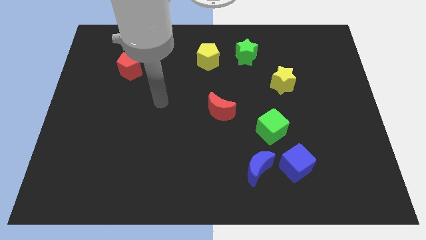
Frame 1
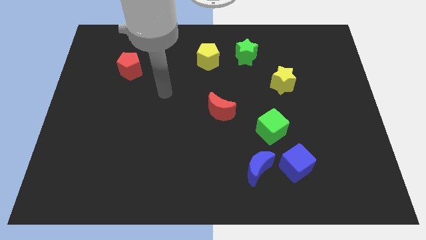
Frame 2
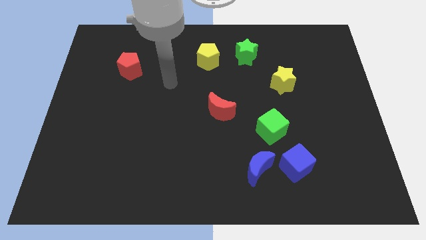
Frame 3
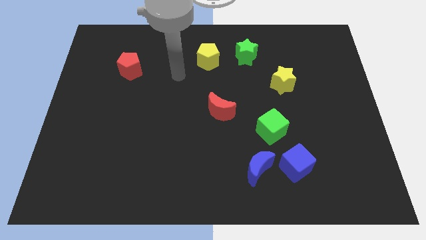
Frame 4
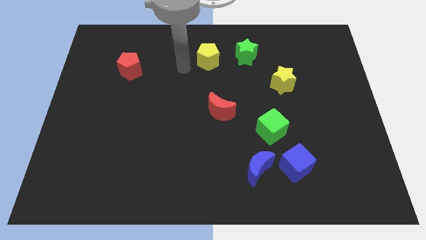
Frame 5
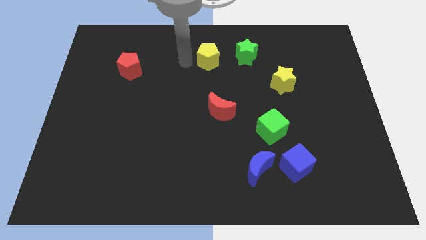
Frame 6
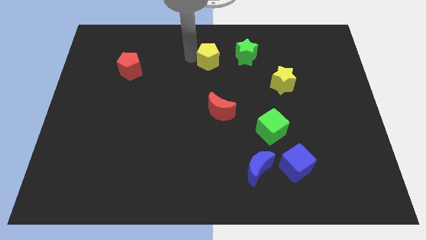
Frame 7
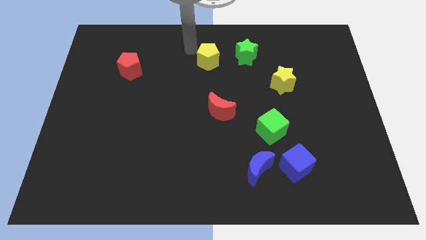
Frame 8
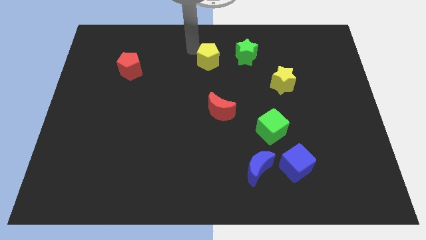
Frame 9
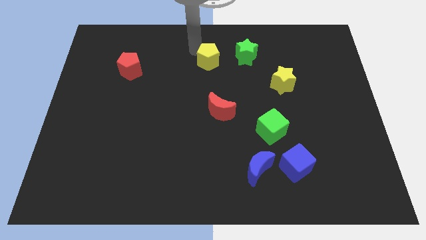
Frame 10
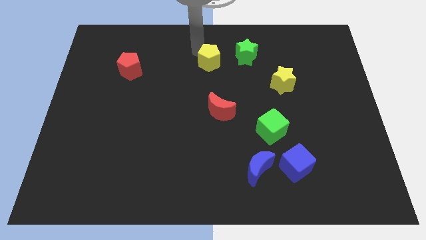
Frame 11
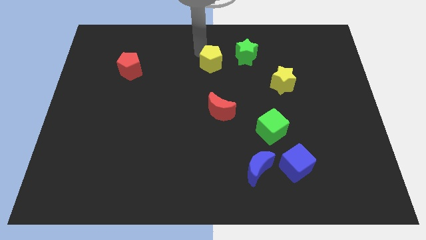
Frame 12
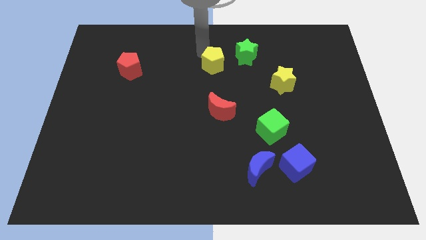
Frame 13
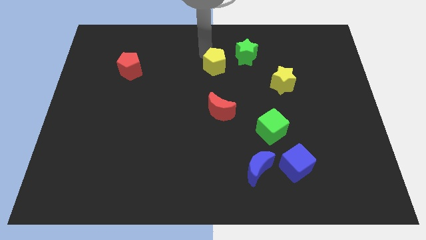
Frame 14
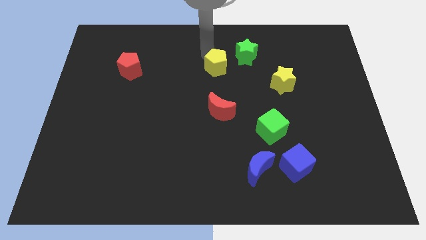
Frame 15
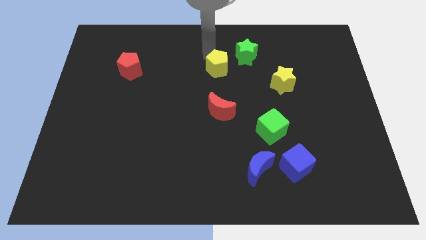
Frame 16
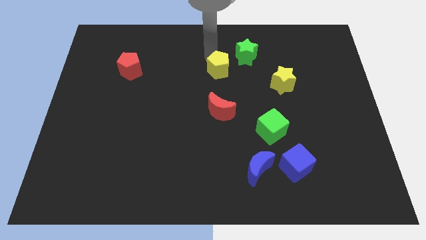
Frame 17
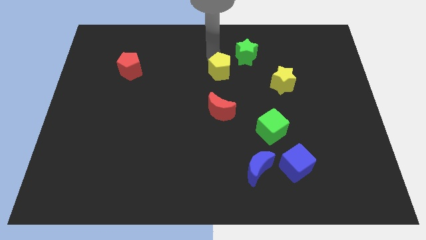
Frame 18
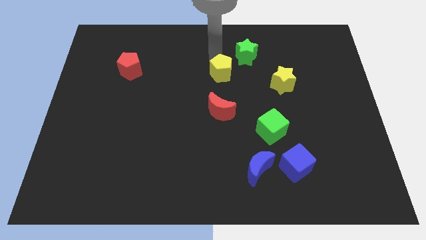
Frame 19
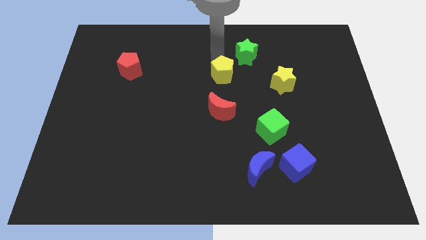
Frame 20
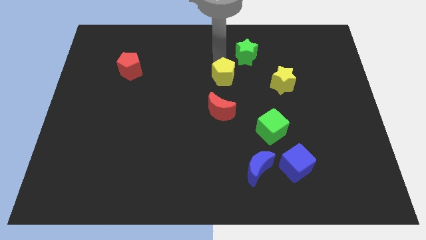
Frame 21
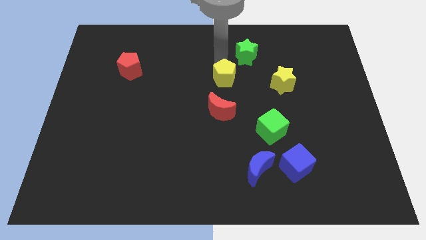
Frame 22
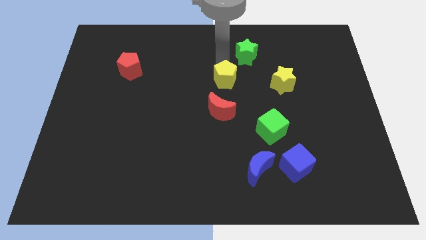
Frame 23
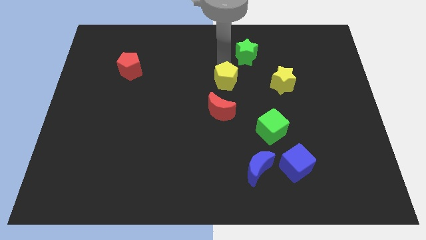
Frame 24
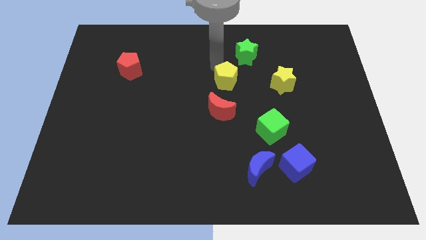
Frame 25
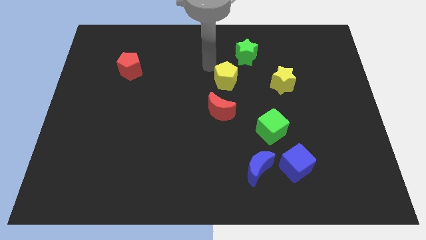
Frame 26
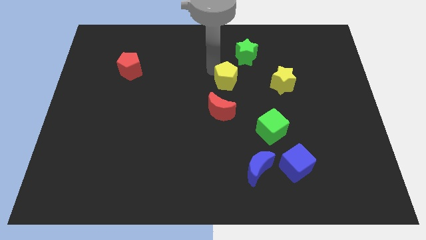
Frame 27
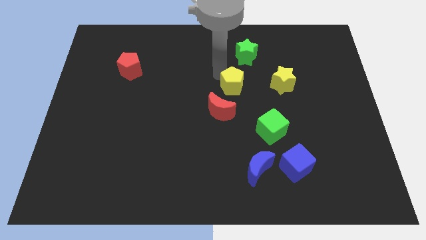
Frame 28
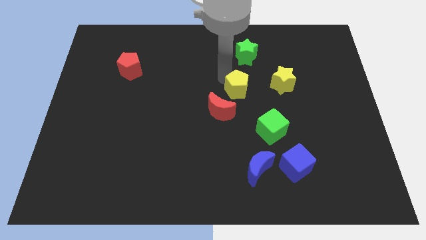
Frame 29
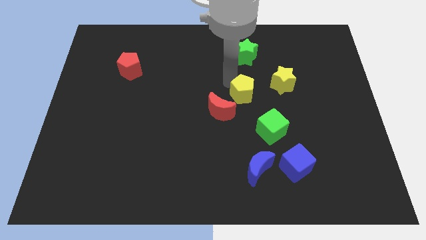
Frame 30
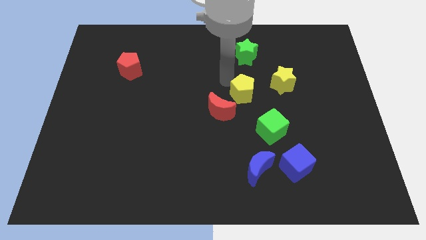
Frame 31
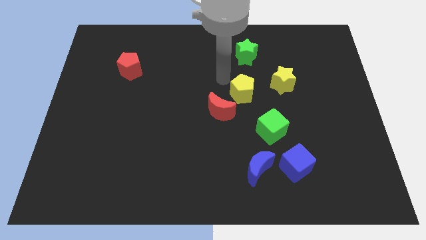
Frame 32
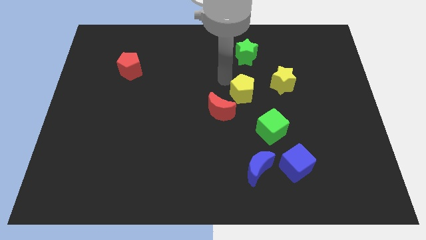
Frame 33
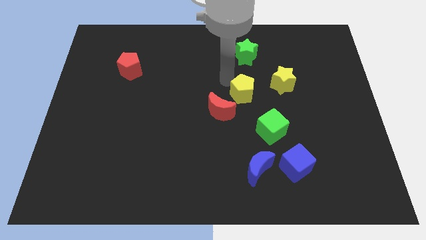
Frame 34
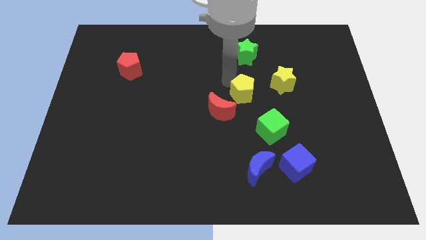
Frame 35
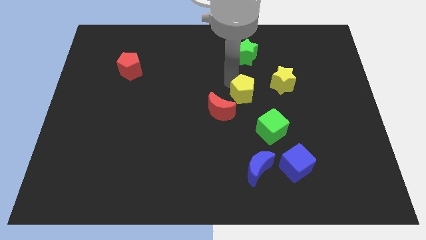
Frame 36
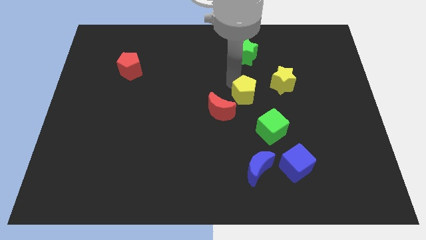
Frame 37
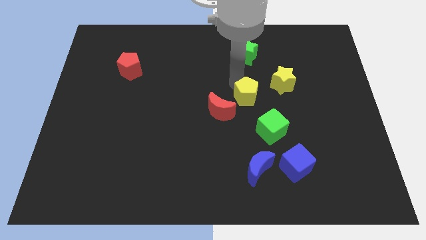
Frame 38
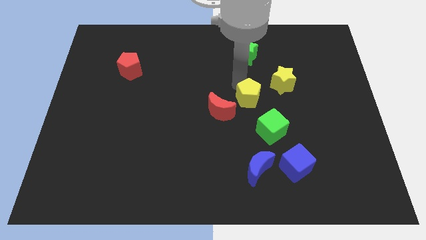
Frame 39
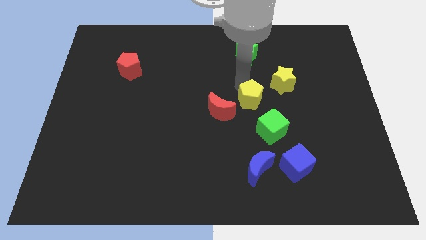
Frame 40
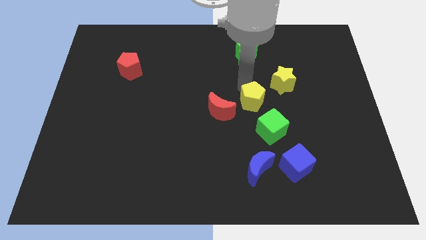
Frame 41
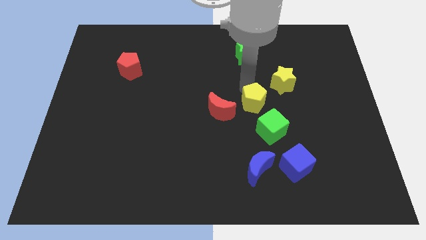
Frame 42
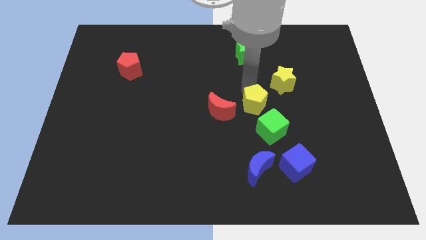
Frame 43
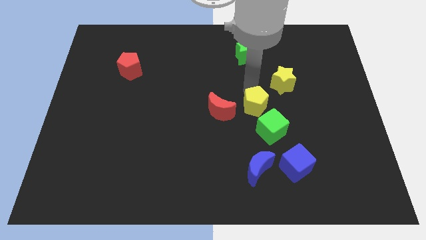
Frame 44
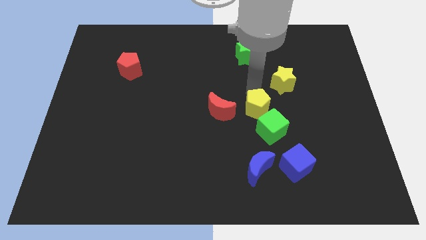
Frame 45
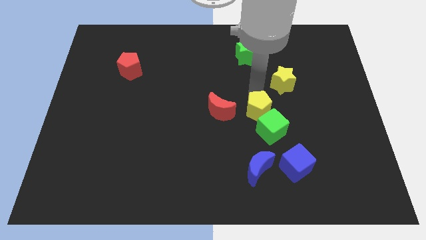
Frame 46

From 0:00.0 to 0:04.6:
put the yellow pentagon close to the green cube

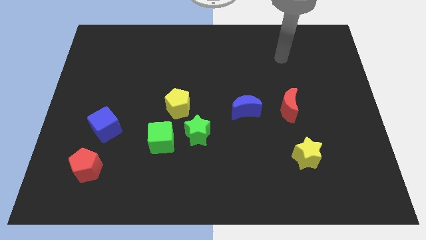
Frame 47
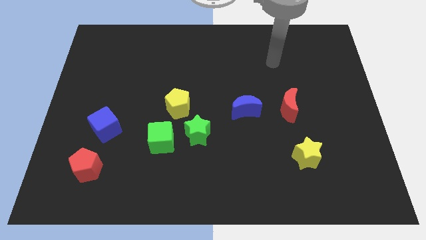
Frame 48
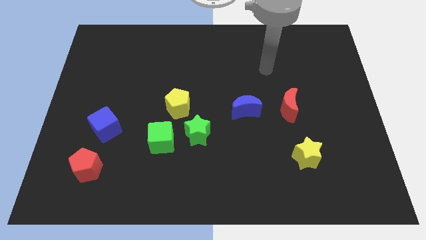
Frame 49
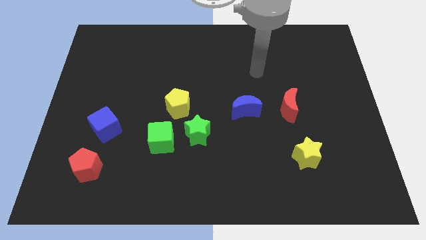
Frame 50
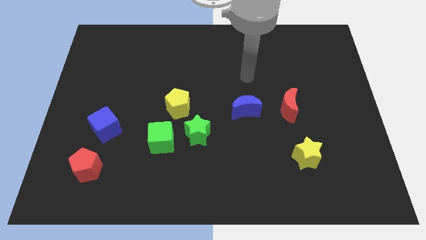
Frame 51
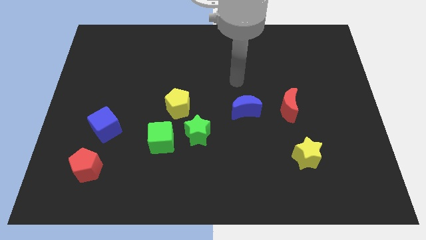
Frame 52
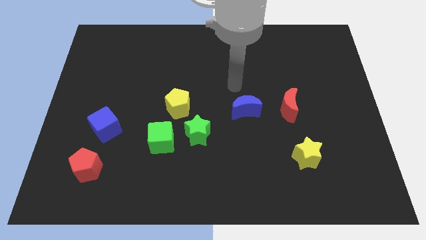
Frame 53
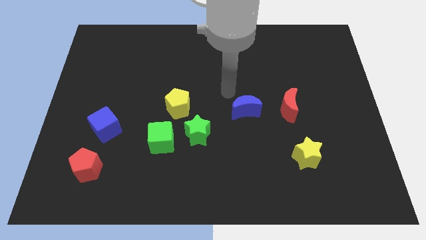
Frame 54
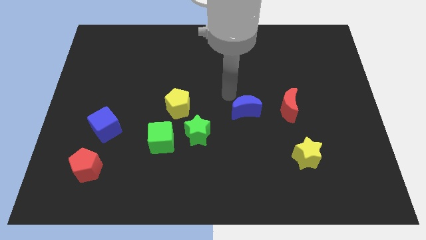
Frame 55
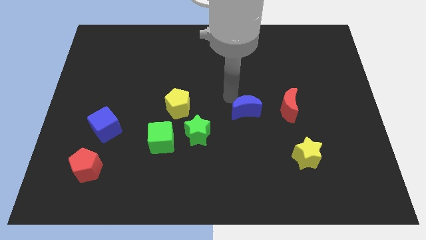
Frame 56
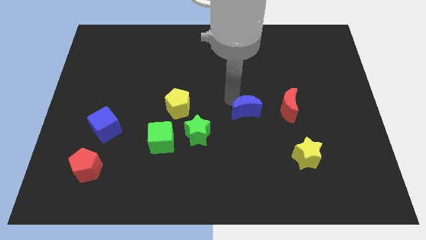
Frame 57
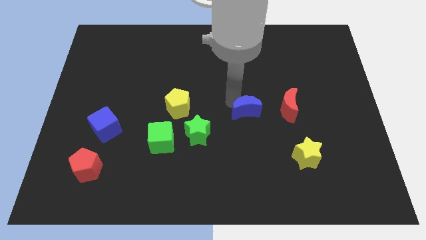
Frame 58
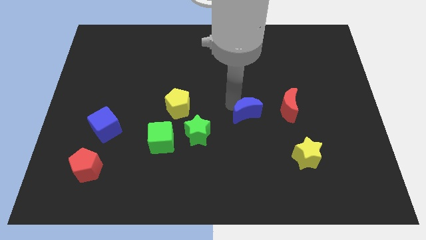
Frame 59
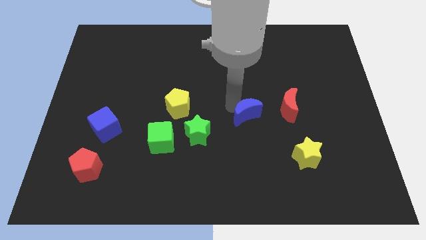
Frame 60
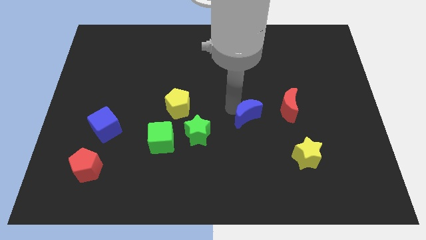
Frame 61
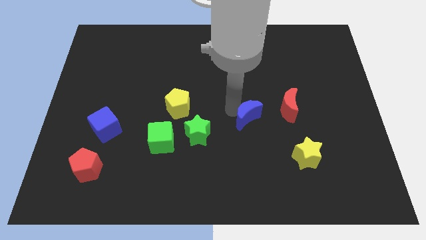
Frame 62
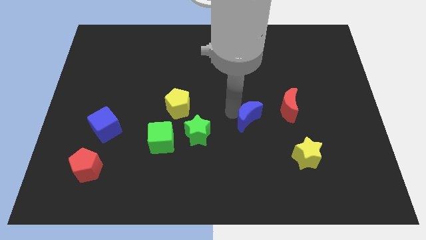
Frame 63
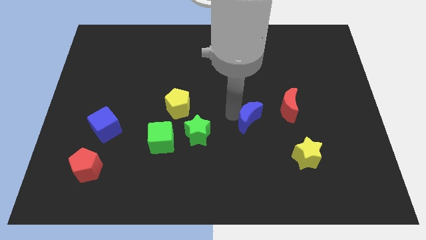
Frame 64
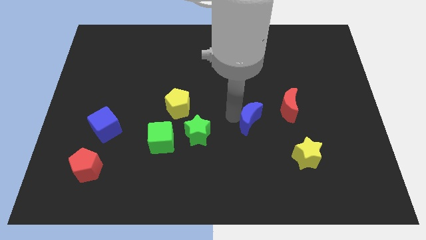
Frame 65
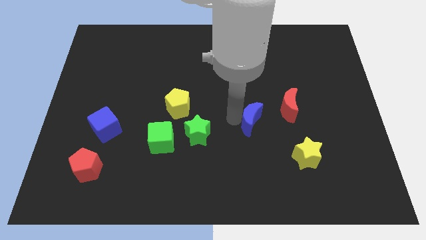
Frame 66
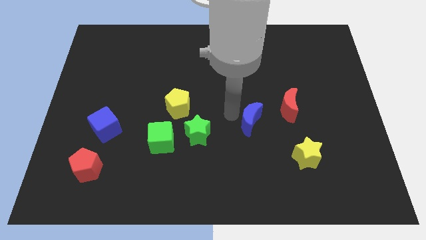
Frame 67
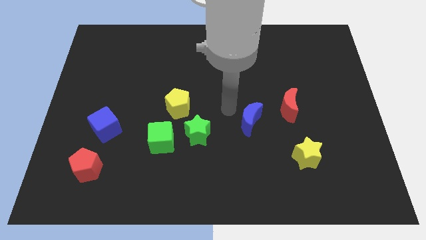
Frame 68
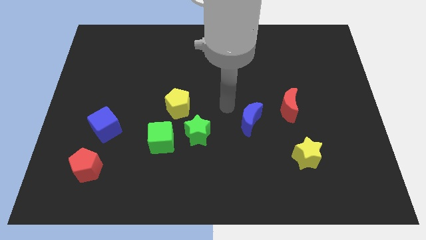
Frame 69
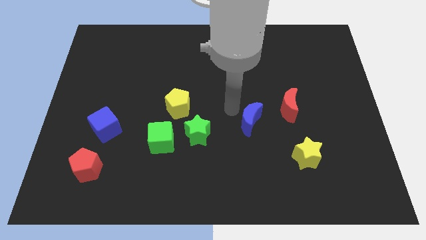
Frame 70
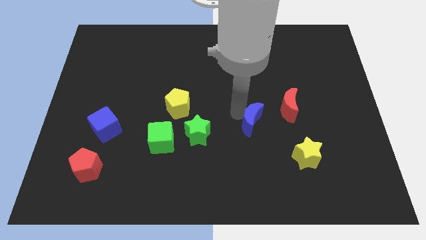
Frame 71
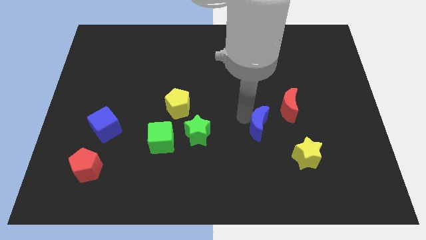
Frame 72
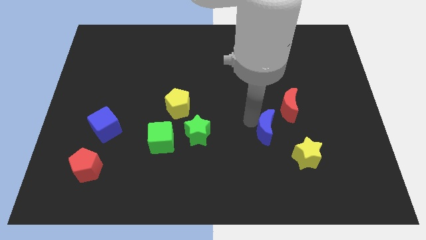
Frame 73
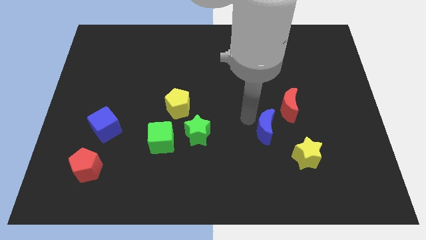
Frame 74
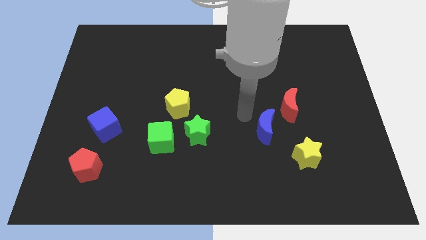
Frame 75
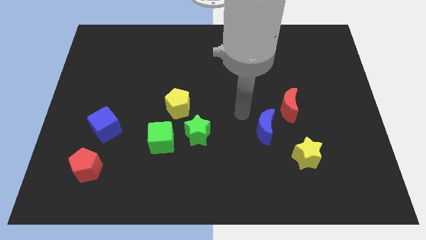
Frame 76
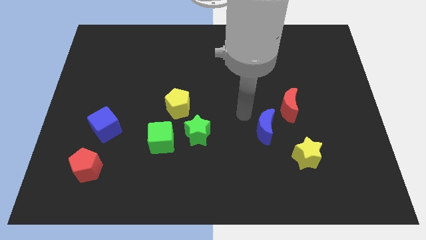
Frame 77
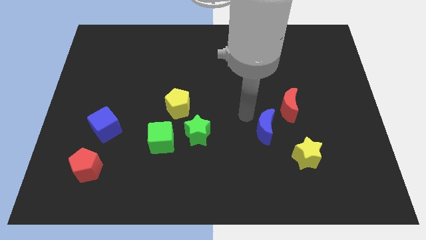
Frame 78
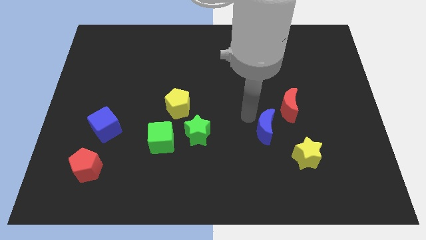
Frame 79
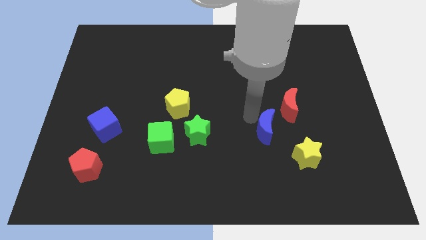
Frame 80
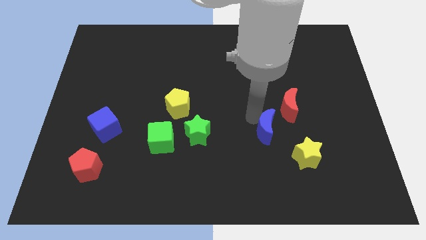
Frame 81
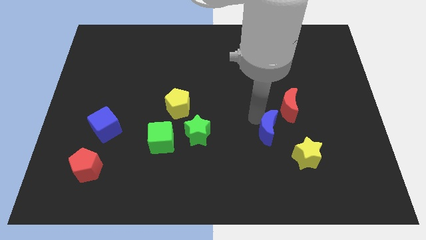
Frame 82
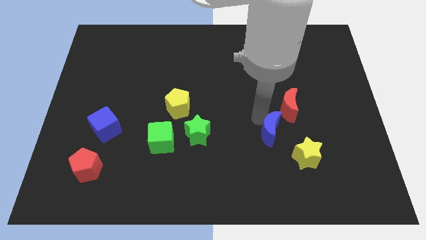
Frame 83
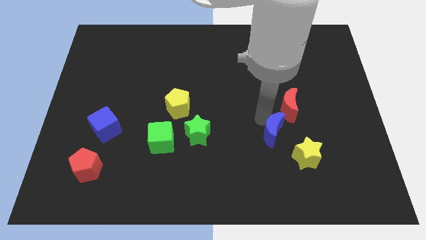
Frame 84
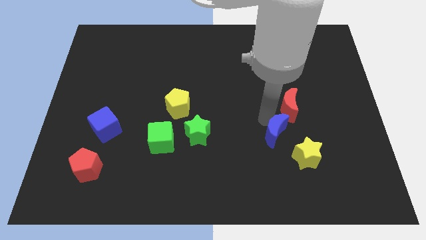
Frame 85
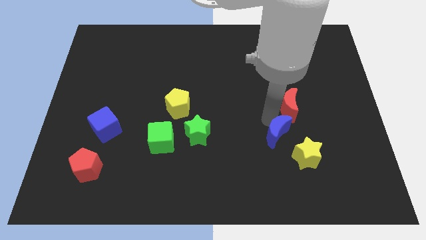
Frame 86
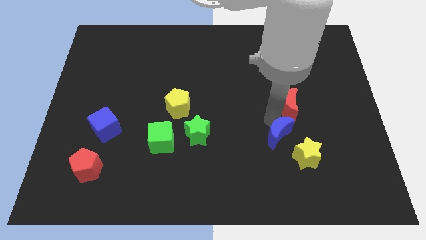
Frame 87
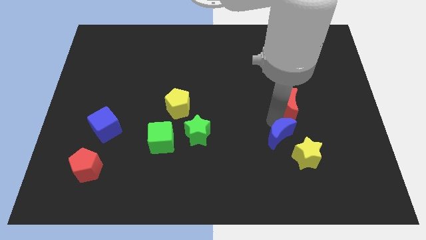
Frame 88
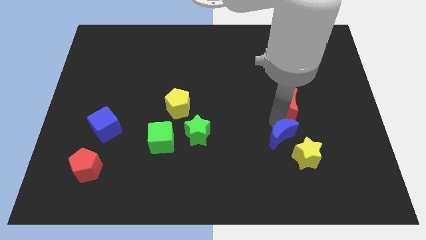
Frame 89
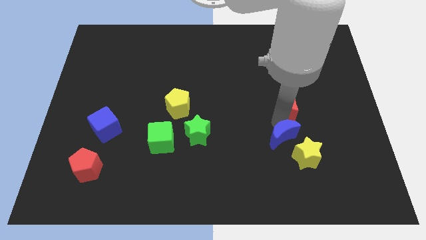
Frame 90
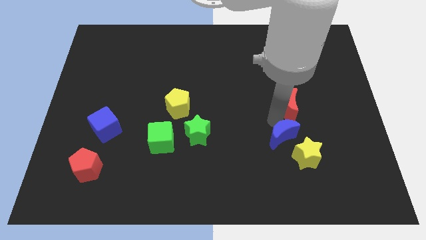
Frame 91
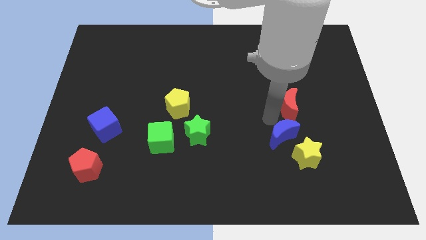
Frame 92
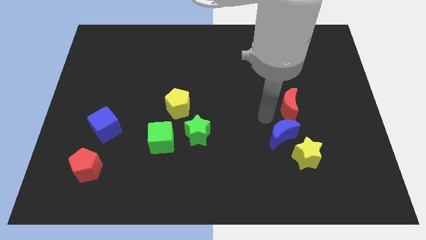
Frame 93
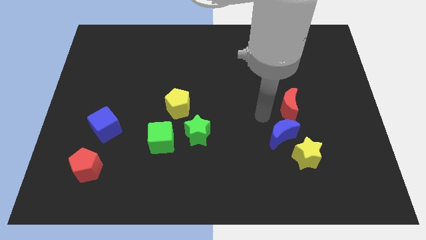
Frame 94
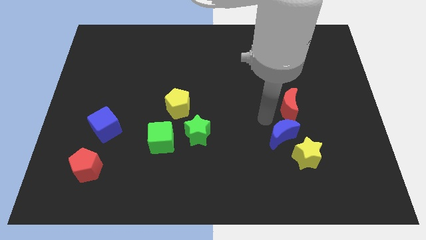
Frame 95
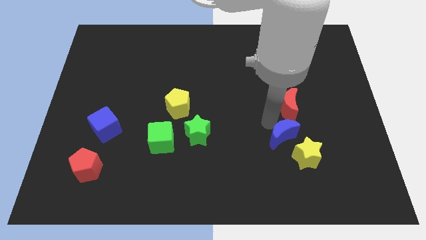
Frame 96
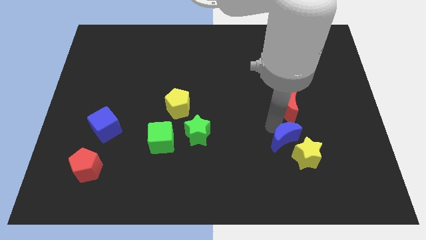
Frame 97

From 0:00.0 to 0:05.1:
move the blue moon next to the yellow star
